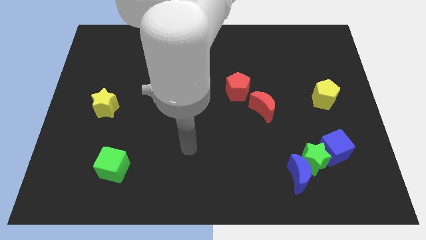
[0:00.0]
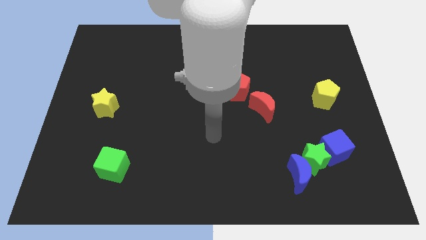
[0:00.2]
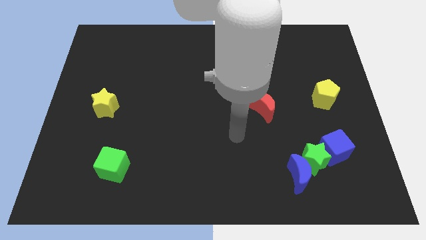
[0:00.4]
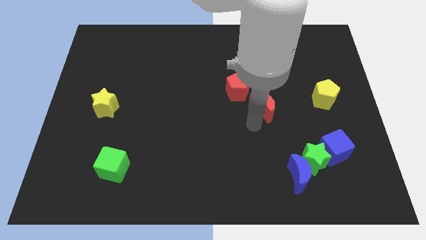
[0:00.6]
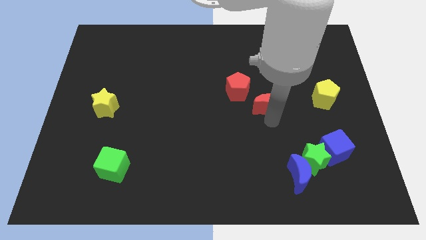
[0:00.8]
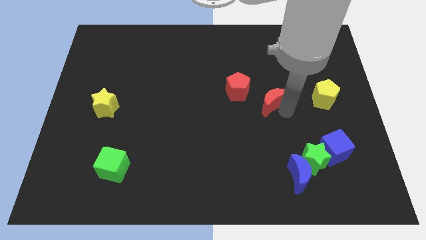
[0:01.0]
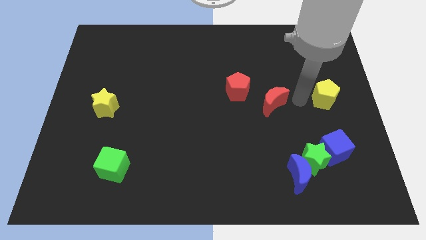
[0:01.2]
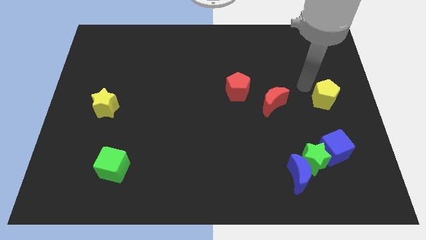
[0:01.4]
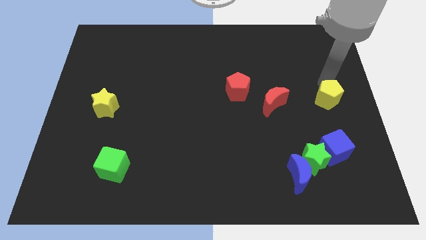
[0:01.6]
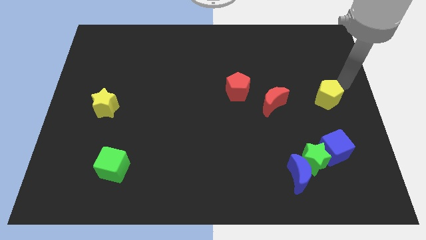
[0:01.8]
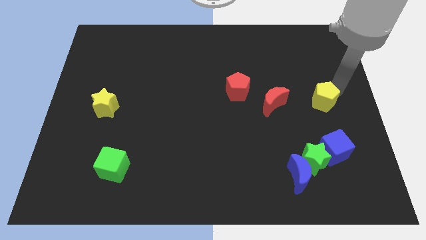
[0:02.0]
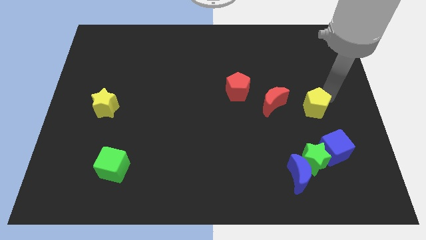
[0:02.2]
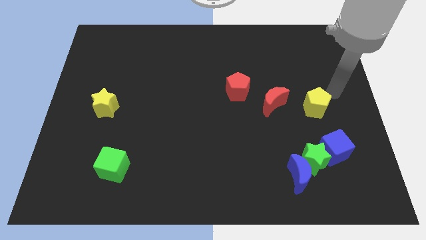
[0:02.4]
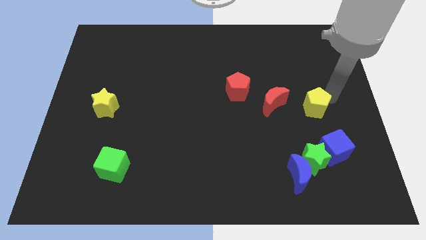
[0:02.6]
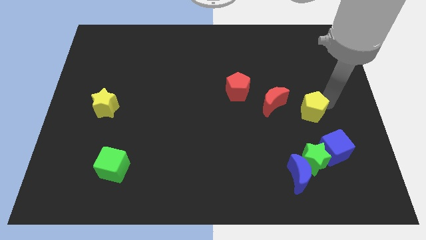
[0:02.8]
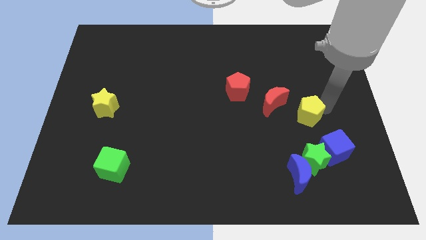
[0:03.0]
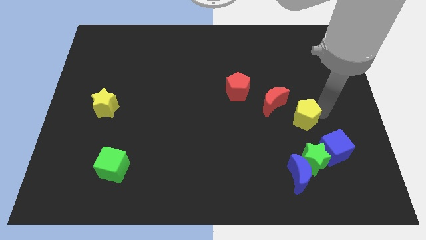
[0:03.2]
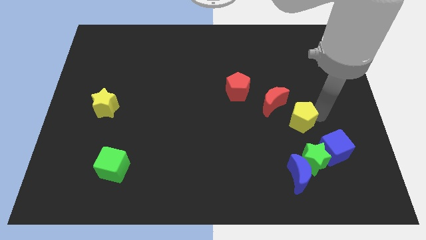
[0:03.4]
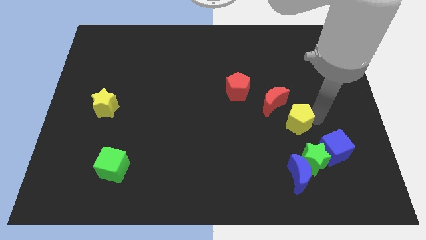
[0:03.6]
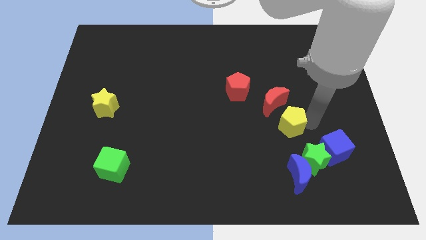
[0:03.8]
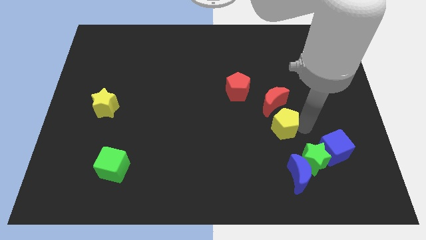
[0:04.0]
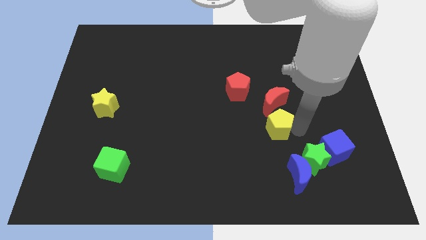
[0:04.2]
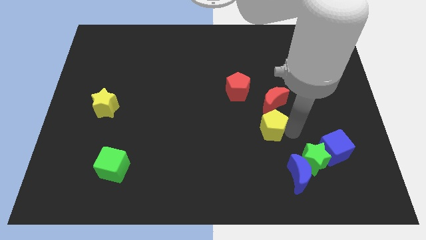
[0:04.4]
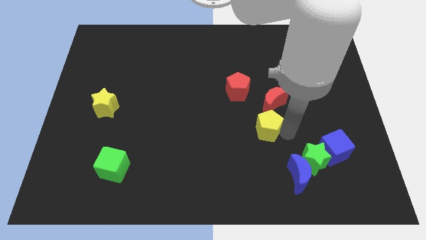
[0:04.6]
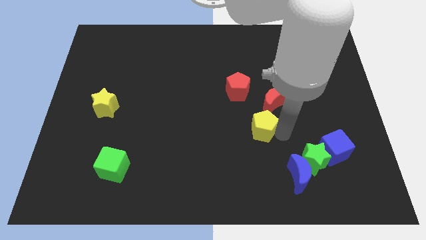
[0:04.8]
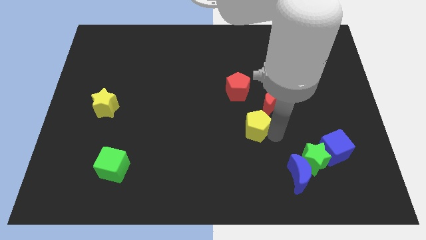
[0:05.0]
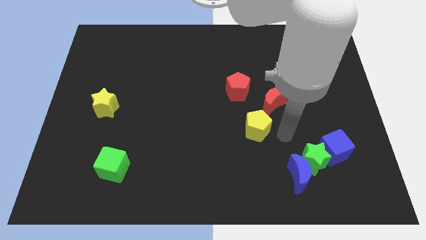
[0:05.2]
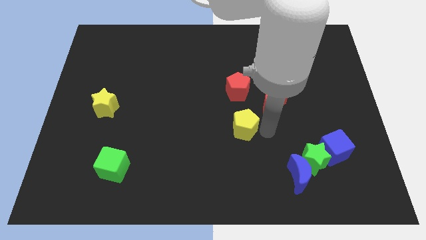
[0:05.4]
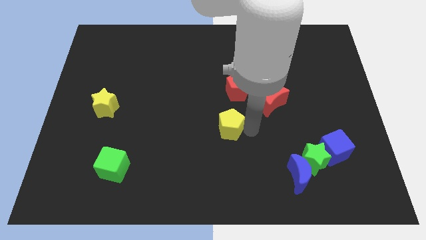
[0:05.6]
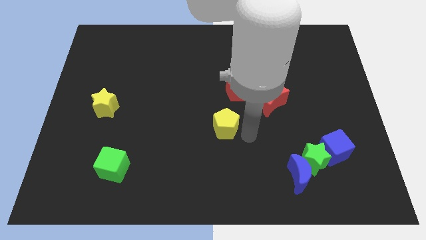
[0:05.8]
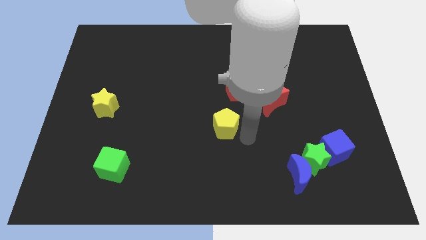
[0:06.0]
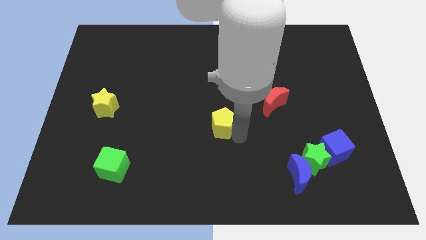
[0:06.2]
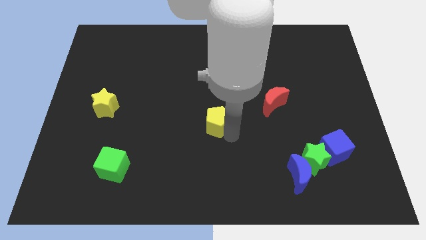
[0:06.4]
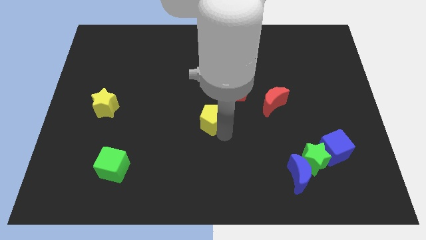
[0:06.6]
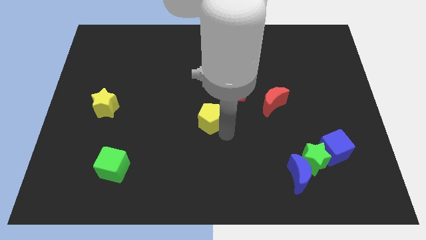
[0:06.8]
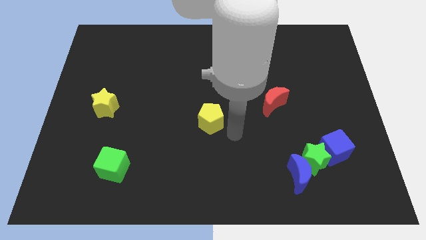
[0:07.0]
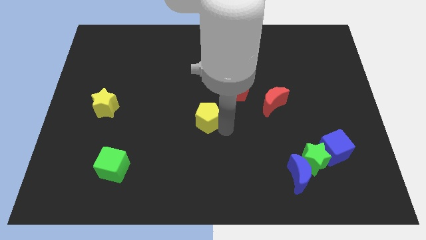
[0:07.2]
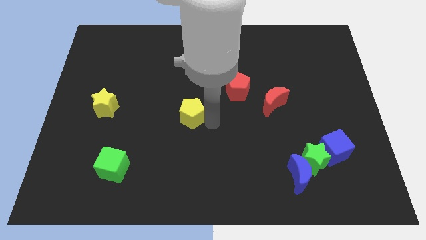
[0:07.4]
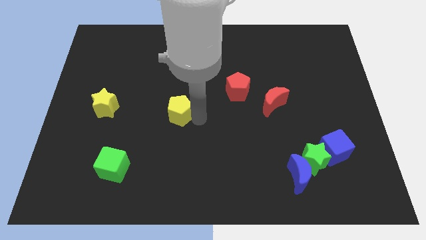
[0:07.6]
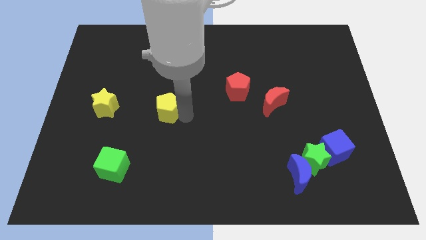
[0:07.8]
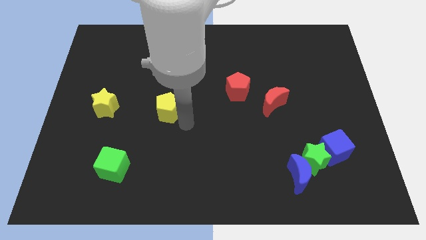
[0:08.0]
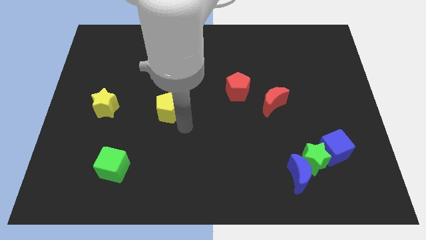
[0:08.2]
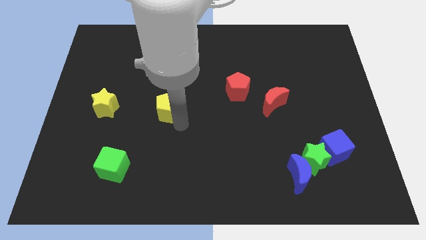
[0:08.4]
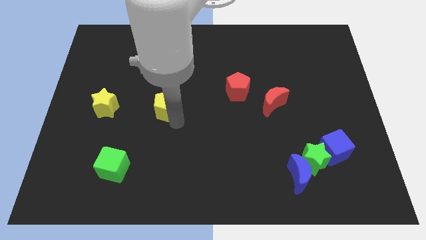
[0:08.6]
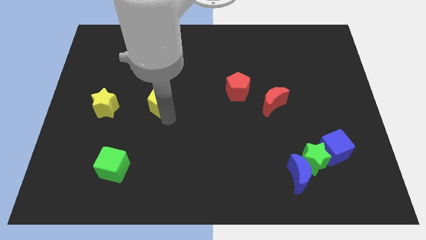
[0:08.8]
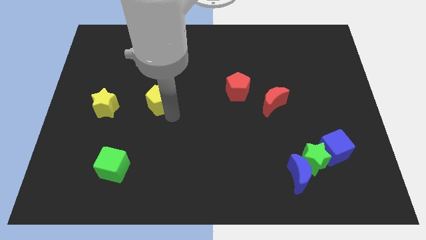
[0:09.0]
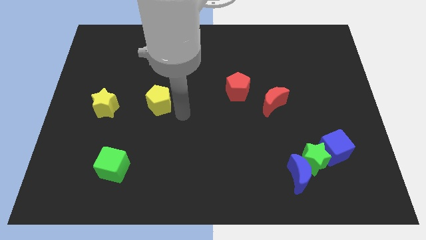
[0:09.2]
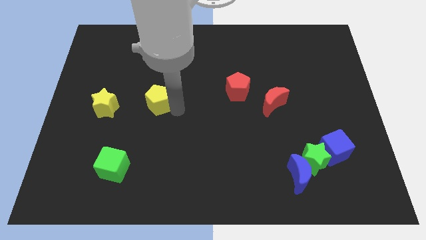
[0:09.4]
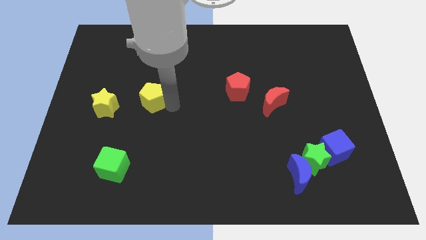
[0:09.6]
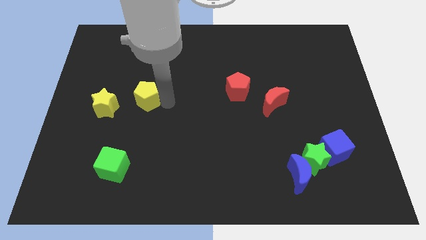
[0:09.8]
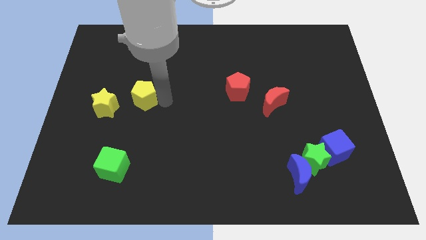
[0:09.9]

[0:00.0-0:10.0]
move the yellow pentagon to the top right side of the yellow star

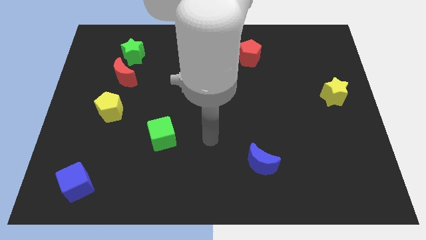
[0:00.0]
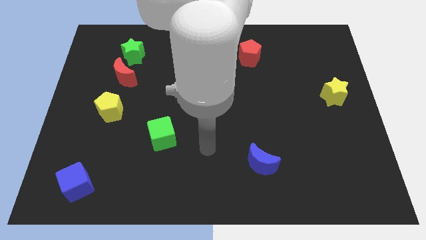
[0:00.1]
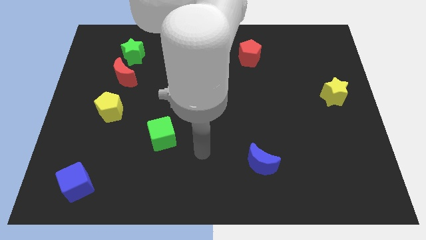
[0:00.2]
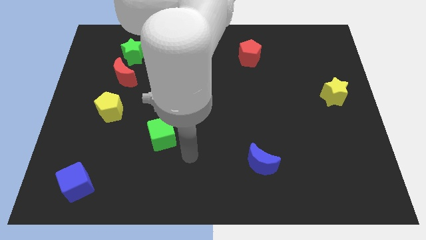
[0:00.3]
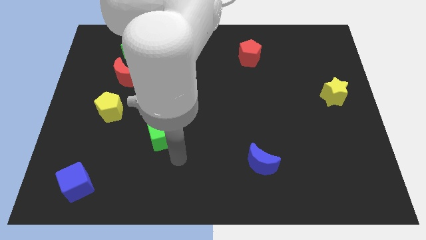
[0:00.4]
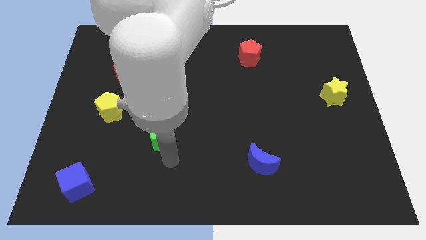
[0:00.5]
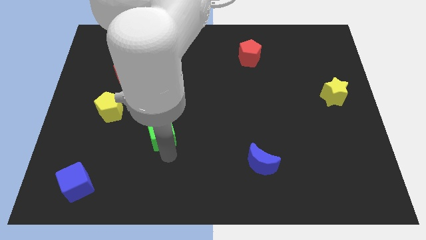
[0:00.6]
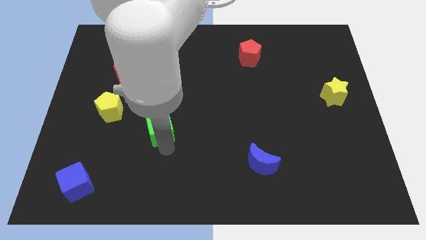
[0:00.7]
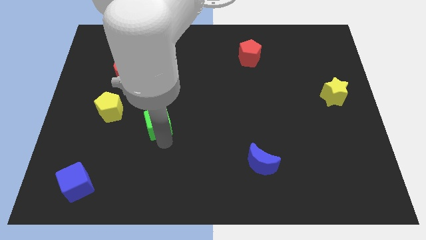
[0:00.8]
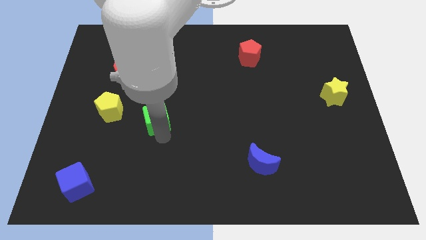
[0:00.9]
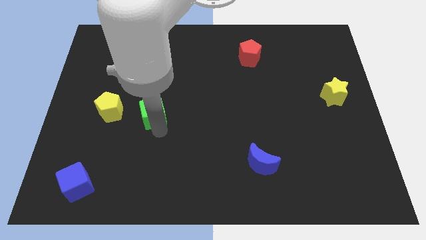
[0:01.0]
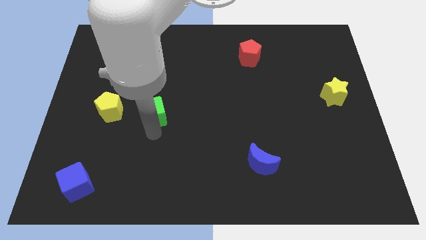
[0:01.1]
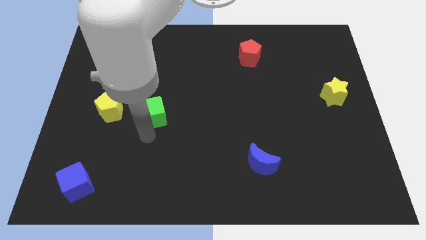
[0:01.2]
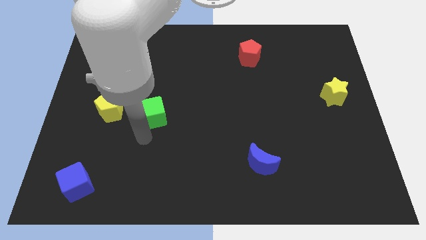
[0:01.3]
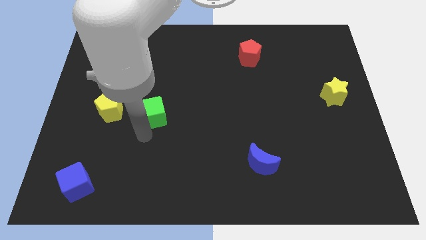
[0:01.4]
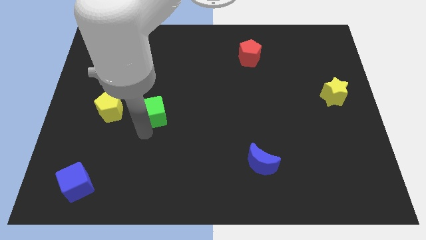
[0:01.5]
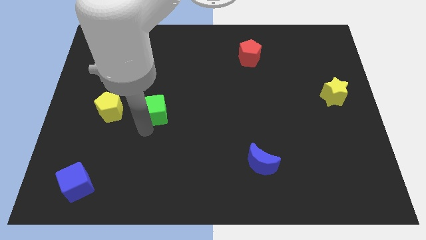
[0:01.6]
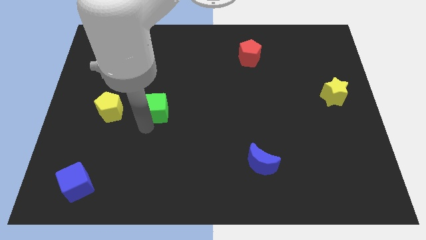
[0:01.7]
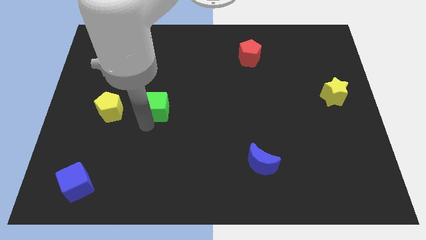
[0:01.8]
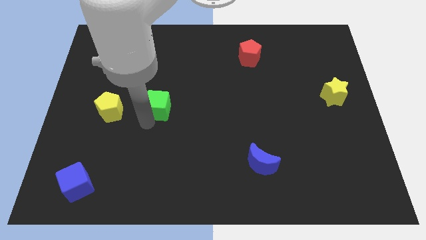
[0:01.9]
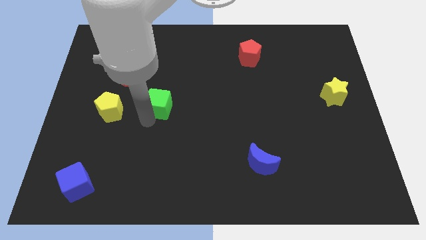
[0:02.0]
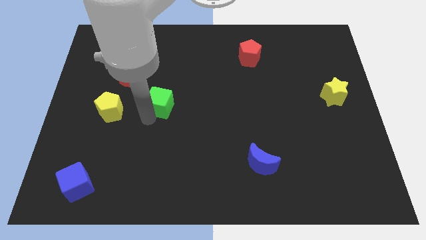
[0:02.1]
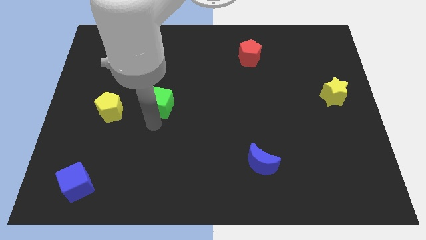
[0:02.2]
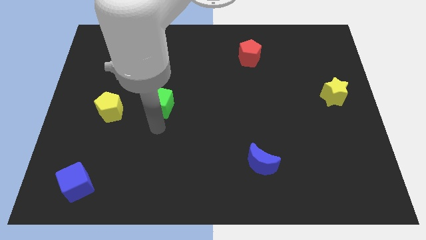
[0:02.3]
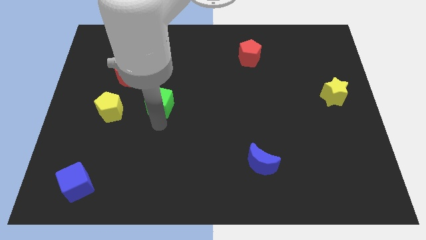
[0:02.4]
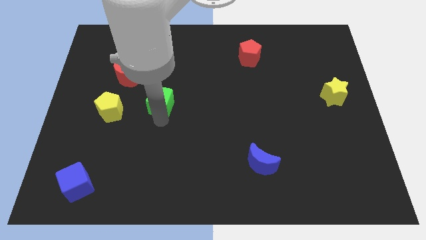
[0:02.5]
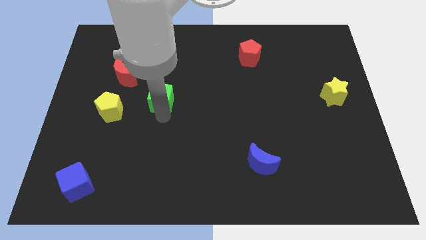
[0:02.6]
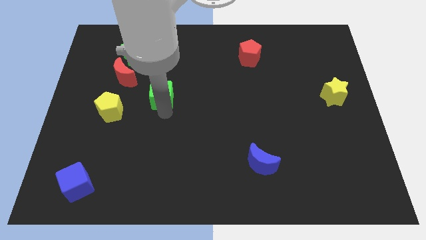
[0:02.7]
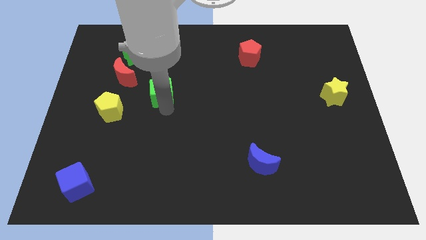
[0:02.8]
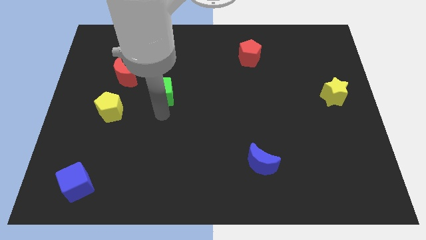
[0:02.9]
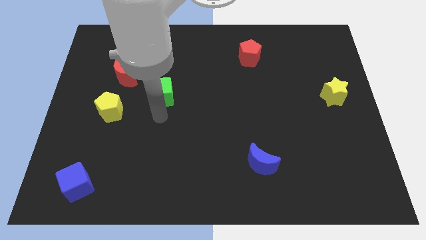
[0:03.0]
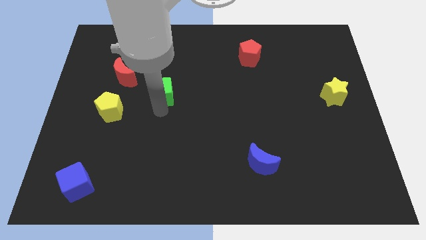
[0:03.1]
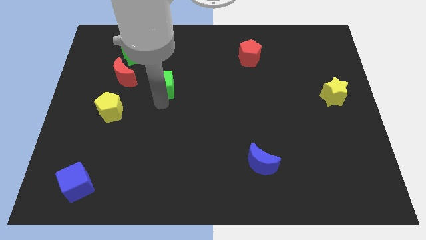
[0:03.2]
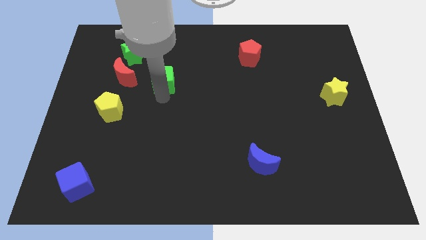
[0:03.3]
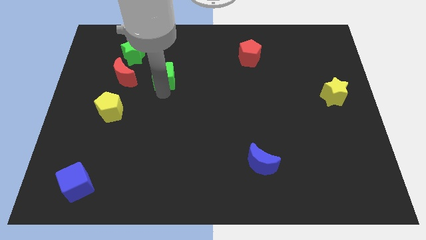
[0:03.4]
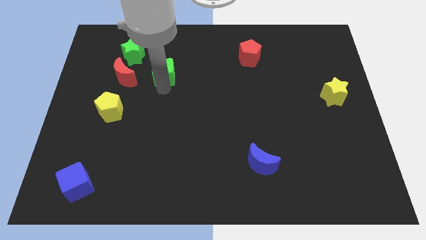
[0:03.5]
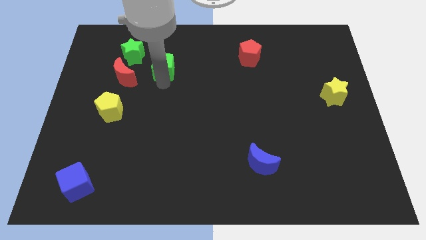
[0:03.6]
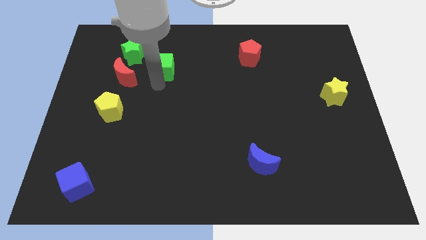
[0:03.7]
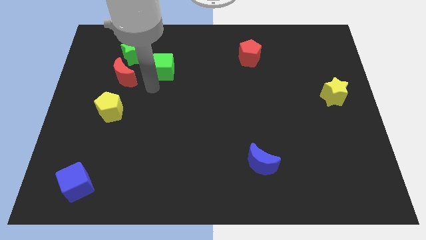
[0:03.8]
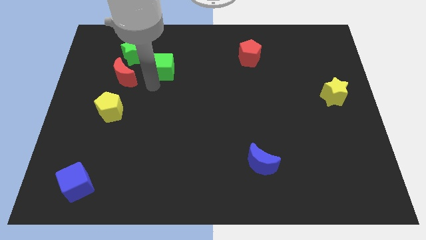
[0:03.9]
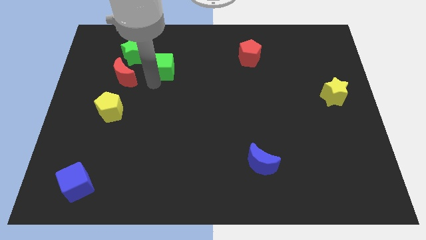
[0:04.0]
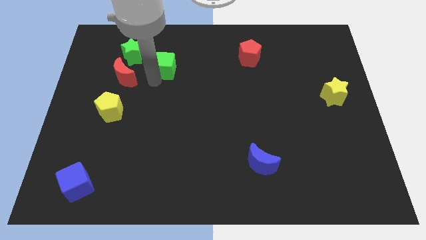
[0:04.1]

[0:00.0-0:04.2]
move the green cube to the right of the green star
